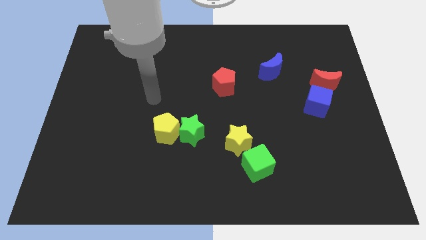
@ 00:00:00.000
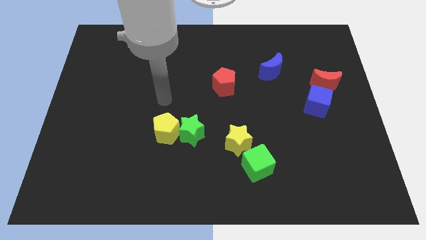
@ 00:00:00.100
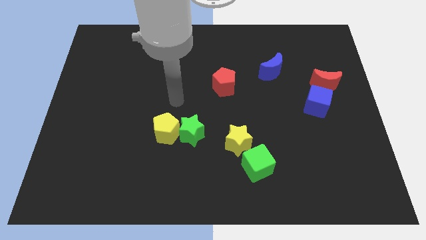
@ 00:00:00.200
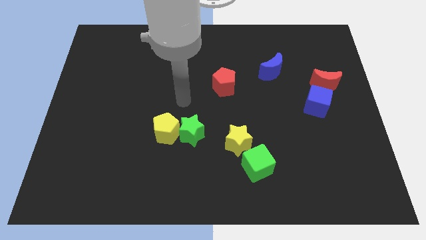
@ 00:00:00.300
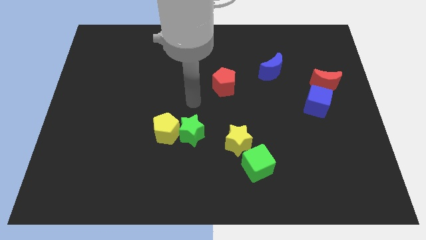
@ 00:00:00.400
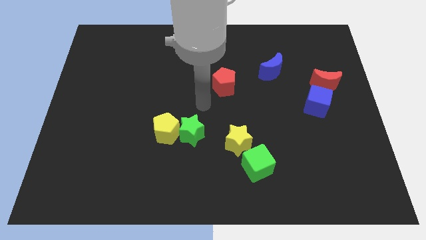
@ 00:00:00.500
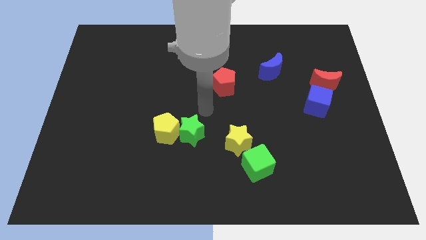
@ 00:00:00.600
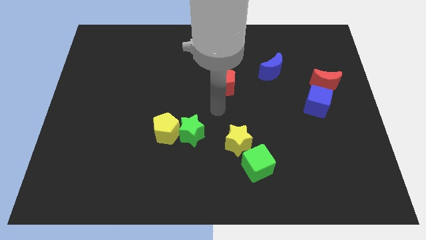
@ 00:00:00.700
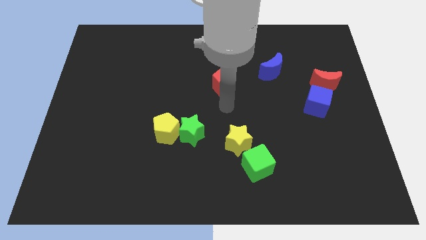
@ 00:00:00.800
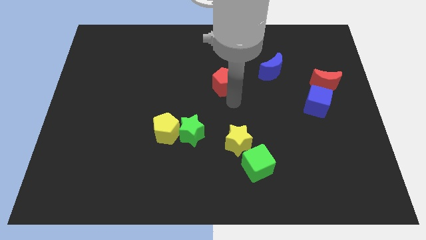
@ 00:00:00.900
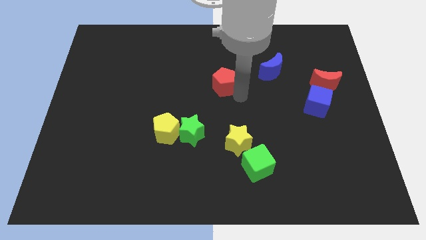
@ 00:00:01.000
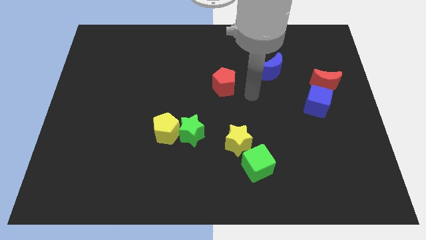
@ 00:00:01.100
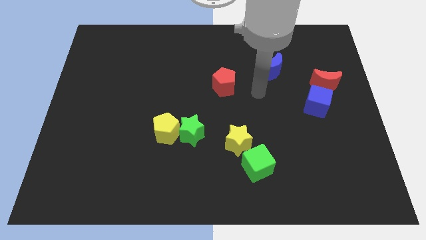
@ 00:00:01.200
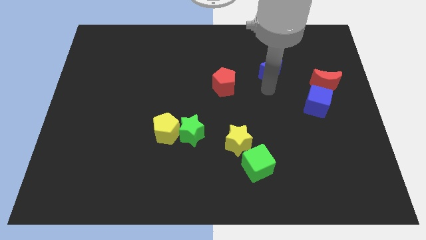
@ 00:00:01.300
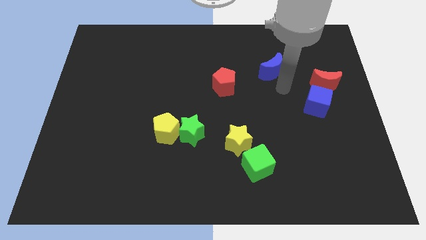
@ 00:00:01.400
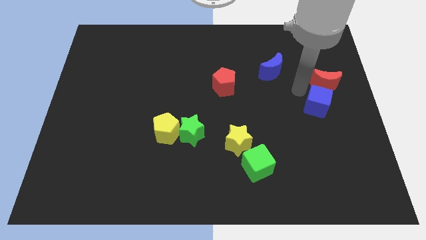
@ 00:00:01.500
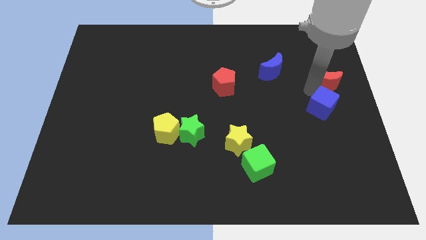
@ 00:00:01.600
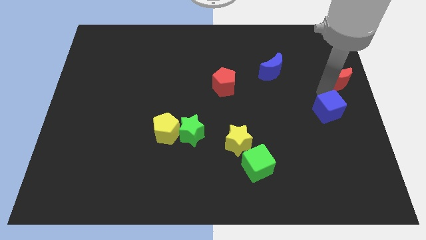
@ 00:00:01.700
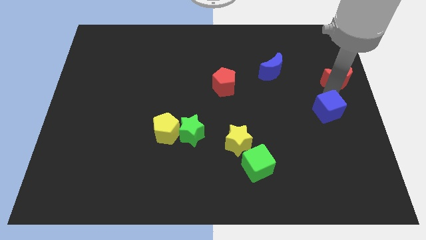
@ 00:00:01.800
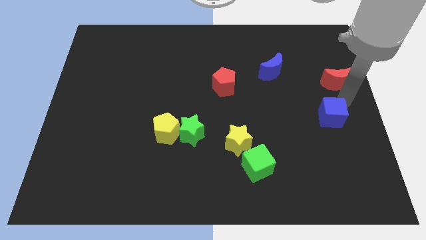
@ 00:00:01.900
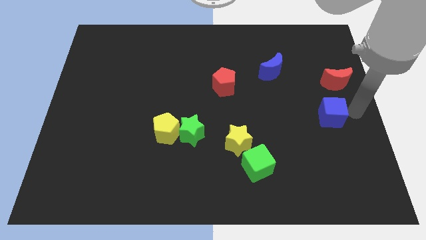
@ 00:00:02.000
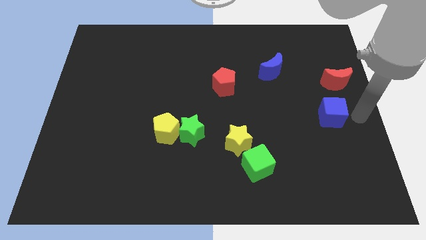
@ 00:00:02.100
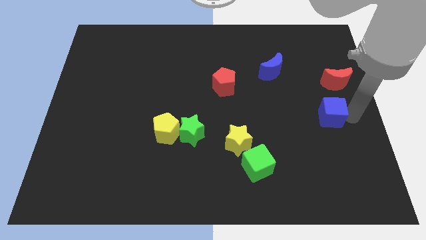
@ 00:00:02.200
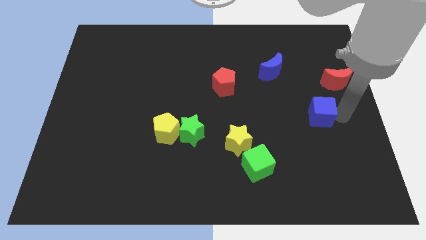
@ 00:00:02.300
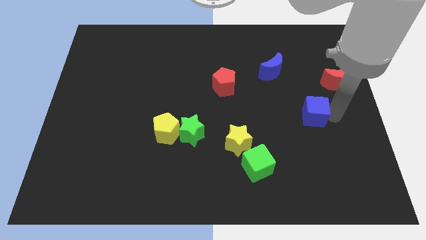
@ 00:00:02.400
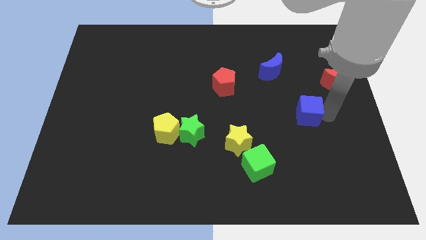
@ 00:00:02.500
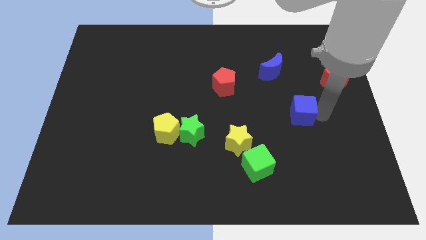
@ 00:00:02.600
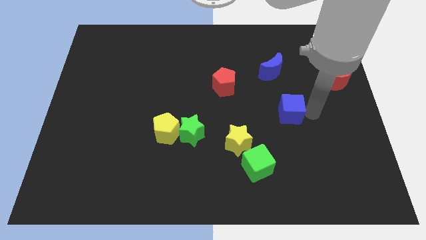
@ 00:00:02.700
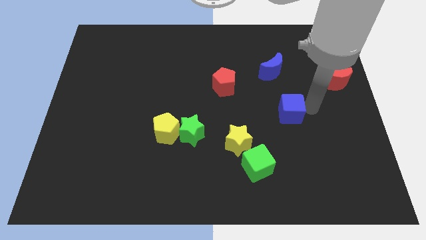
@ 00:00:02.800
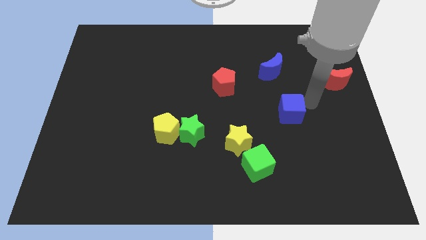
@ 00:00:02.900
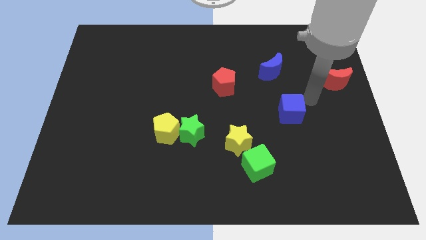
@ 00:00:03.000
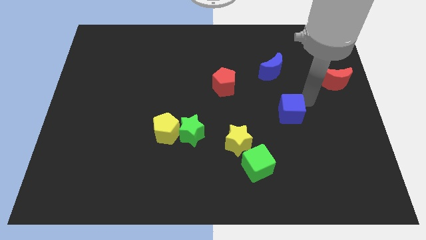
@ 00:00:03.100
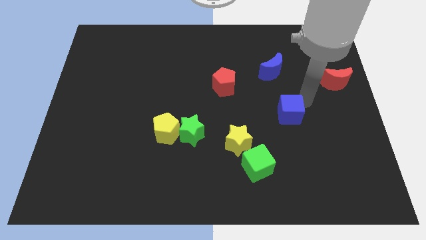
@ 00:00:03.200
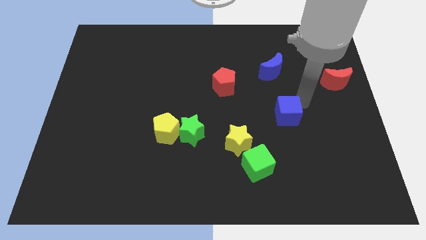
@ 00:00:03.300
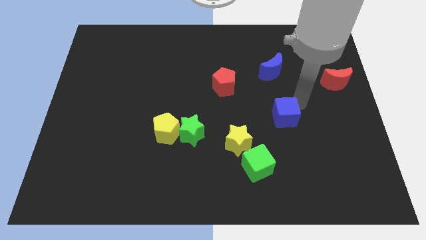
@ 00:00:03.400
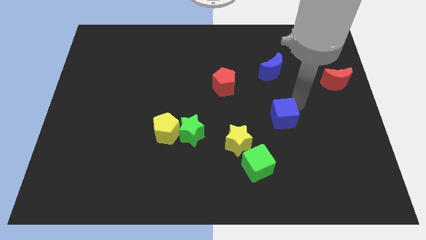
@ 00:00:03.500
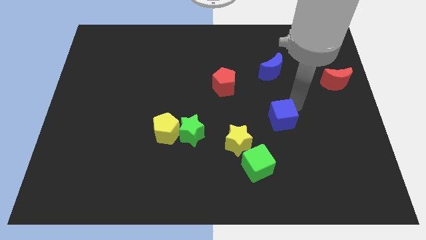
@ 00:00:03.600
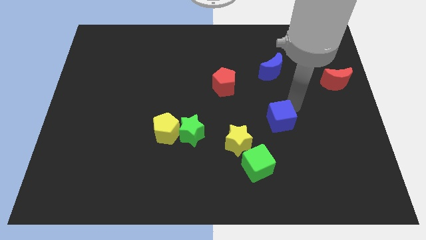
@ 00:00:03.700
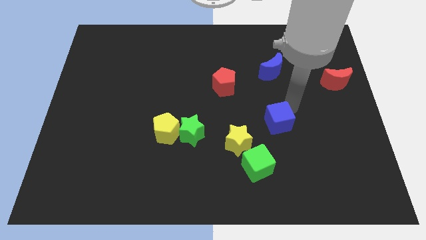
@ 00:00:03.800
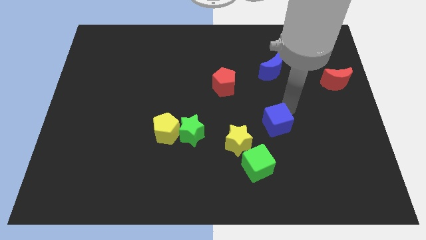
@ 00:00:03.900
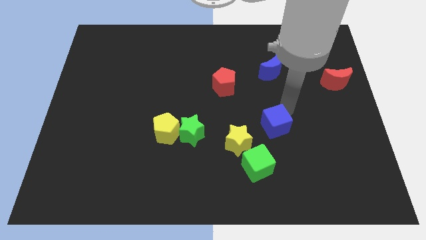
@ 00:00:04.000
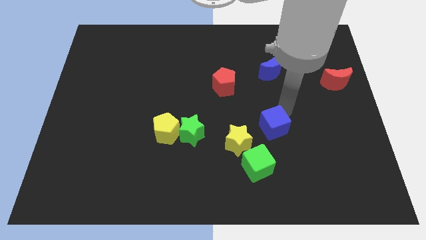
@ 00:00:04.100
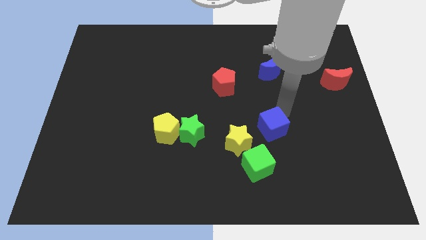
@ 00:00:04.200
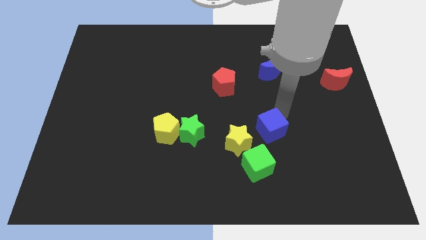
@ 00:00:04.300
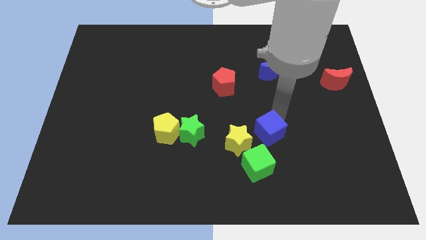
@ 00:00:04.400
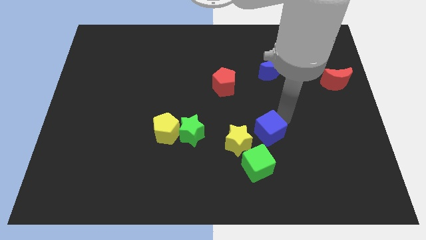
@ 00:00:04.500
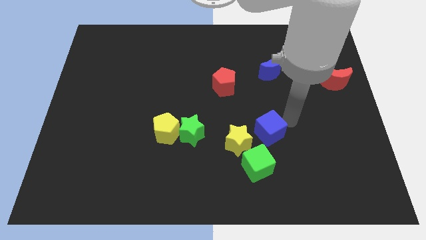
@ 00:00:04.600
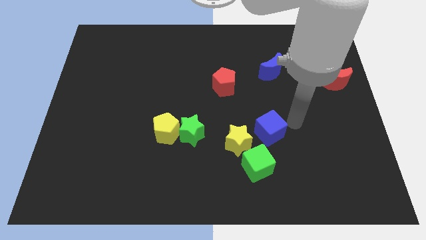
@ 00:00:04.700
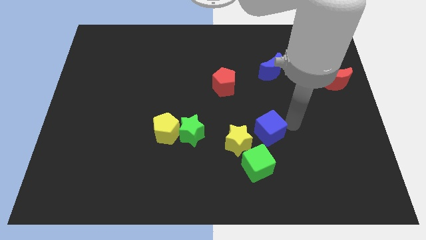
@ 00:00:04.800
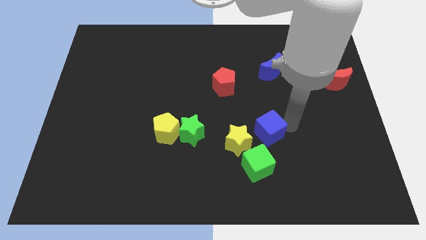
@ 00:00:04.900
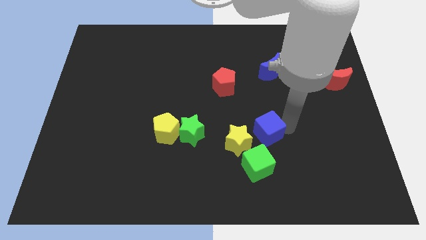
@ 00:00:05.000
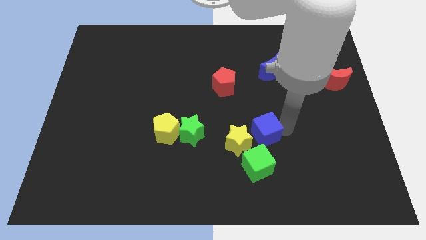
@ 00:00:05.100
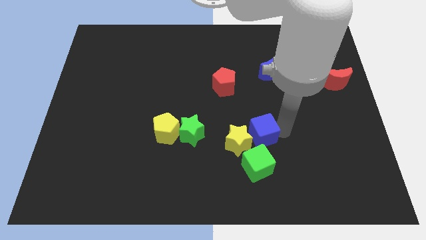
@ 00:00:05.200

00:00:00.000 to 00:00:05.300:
put the blue cube to the yellow star

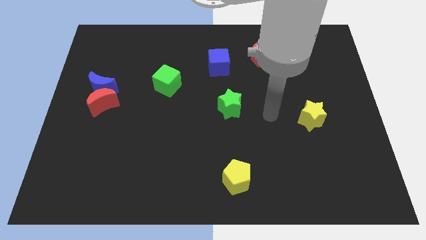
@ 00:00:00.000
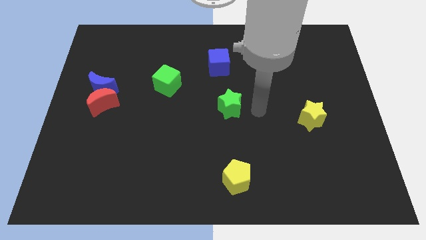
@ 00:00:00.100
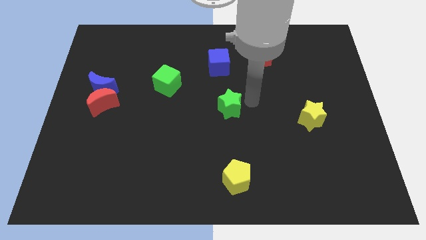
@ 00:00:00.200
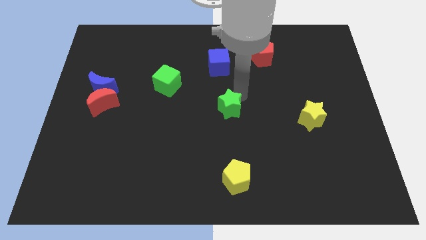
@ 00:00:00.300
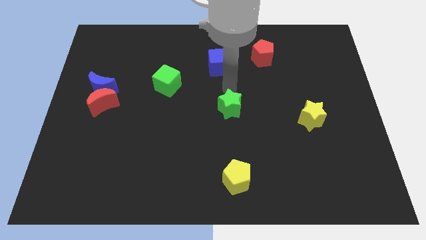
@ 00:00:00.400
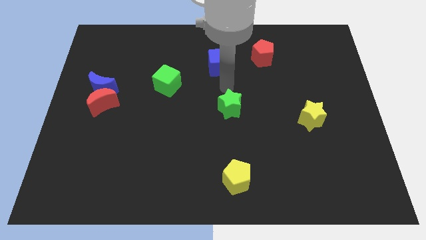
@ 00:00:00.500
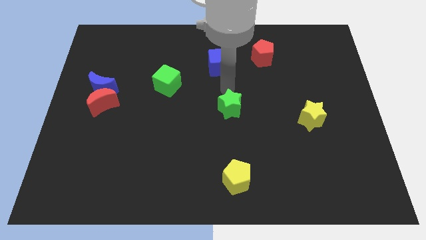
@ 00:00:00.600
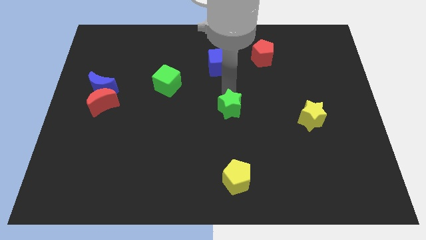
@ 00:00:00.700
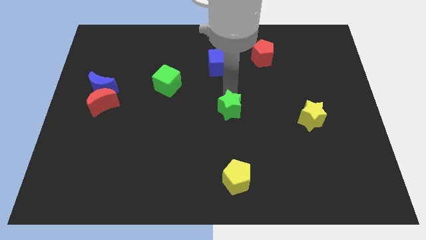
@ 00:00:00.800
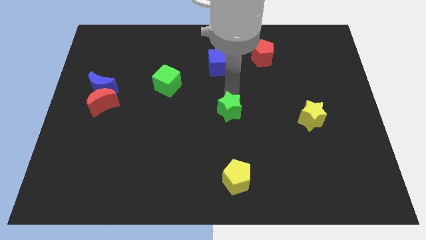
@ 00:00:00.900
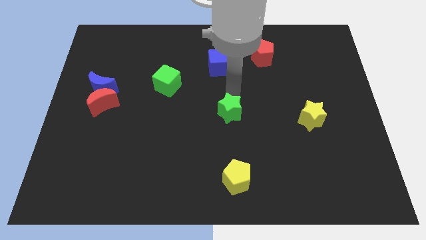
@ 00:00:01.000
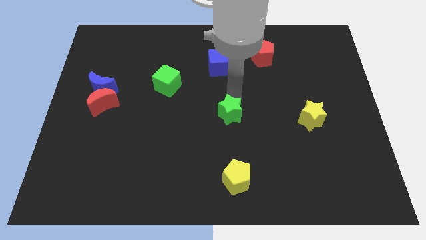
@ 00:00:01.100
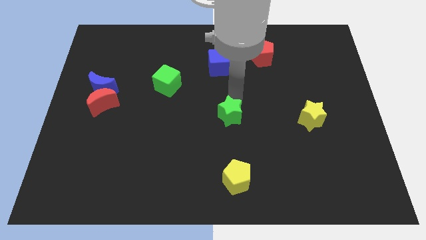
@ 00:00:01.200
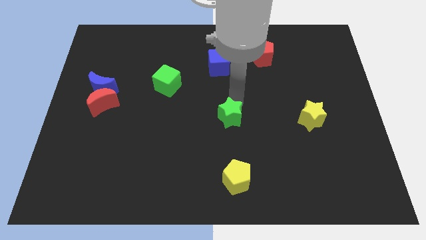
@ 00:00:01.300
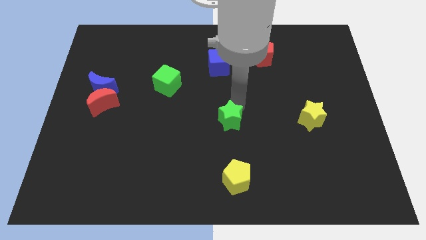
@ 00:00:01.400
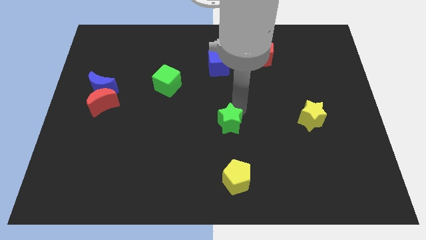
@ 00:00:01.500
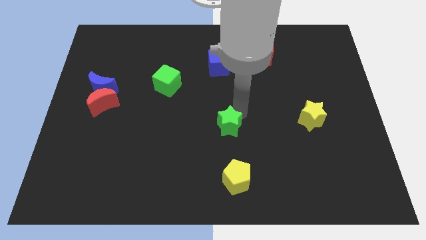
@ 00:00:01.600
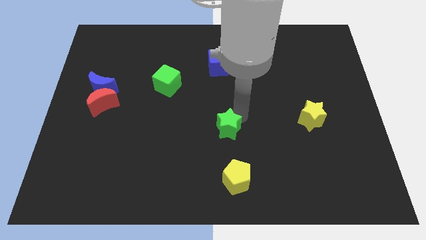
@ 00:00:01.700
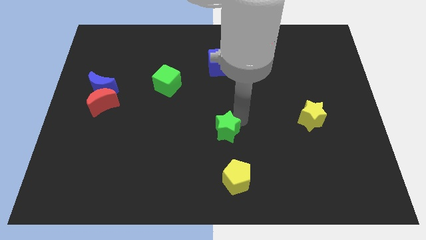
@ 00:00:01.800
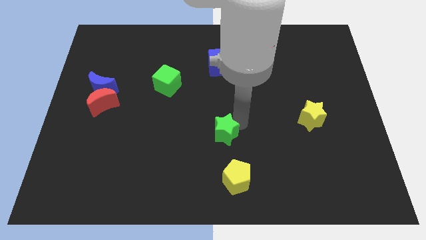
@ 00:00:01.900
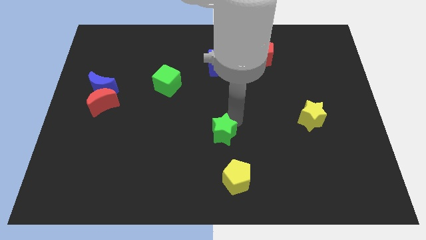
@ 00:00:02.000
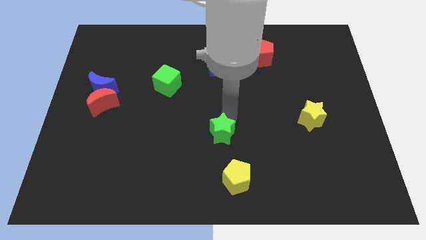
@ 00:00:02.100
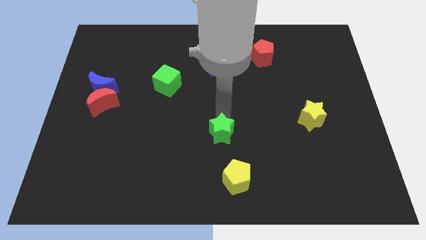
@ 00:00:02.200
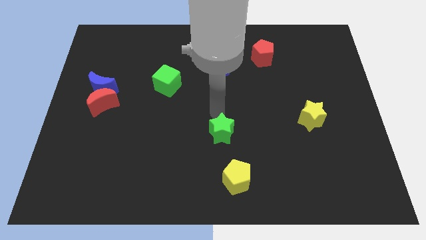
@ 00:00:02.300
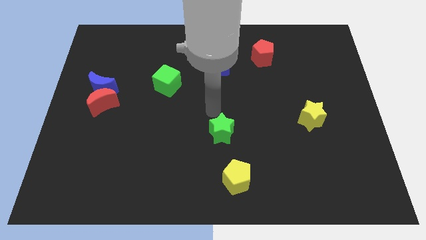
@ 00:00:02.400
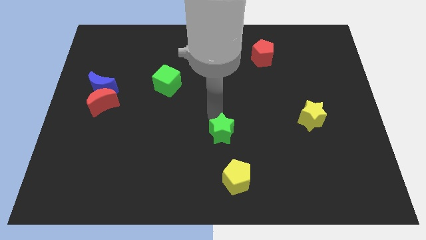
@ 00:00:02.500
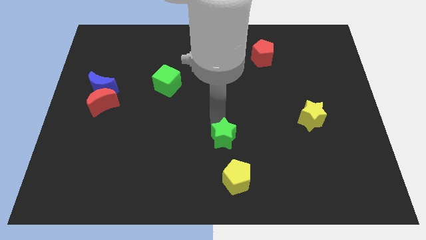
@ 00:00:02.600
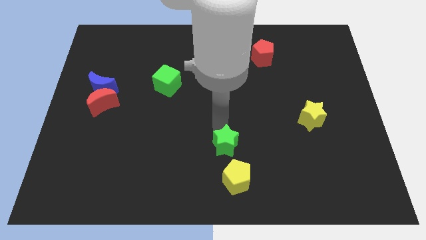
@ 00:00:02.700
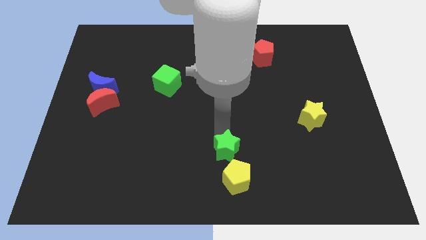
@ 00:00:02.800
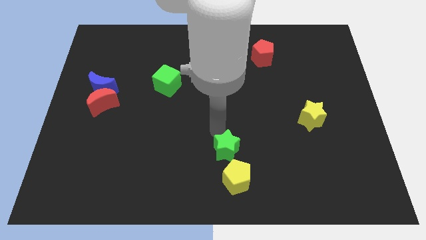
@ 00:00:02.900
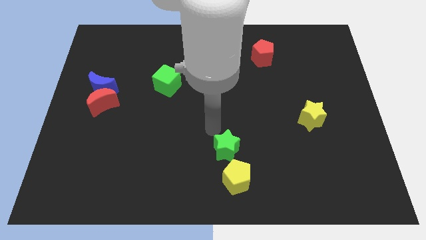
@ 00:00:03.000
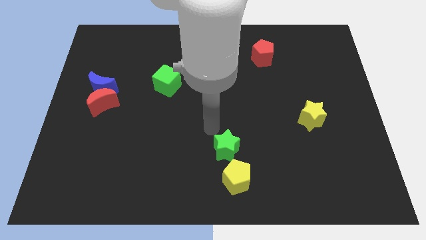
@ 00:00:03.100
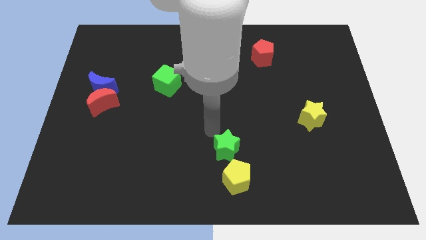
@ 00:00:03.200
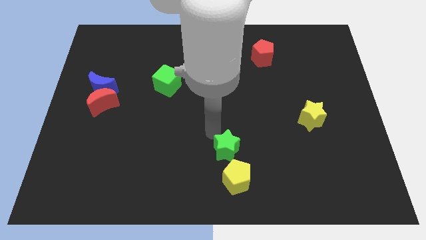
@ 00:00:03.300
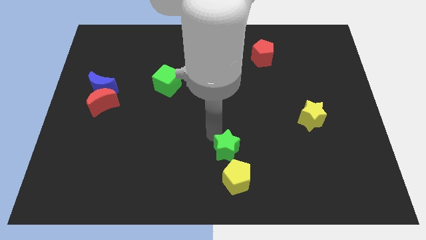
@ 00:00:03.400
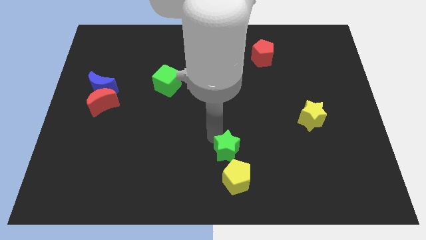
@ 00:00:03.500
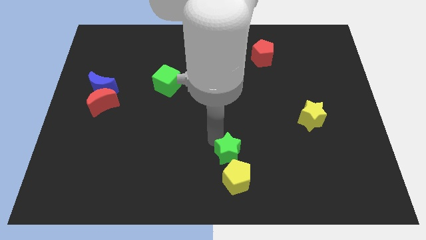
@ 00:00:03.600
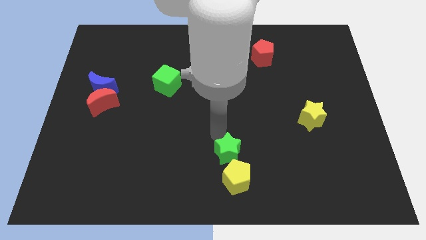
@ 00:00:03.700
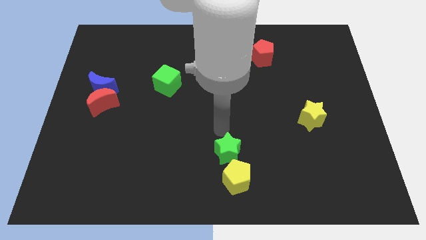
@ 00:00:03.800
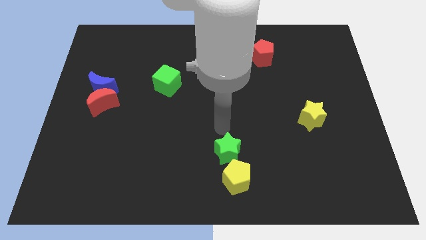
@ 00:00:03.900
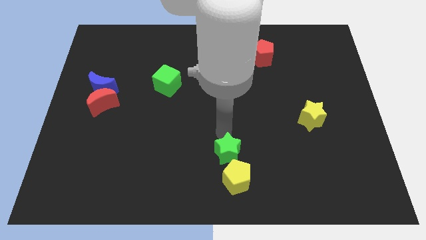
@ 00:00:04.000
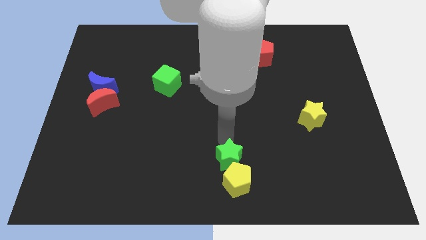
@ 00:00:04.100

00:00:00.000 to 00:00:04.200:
push the green star next to the yellow pentagon
